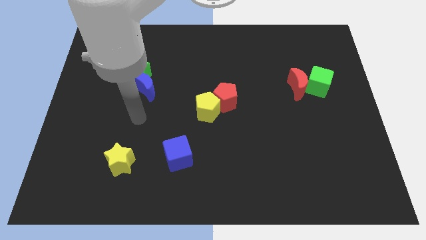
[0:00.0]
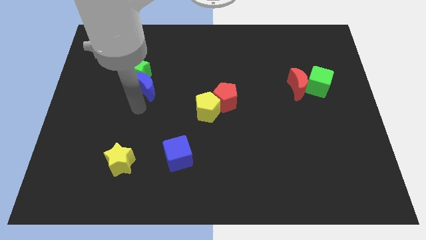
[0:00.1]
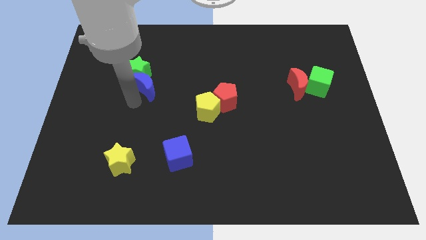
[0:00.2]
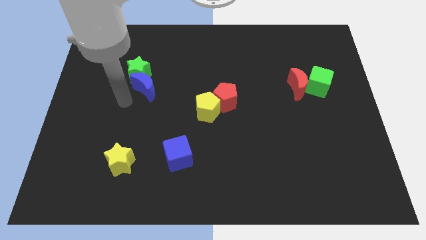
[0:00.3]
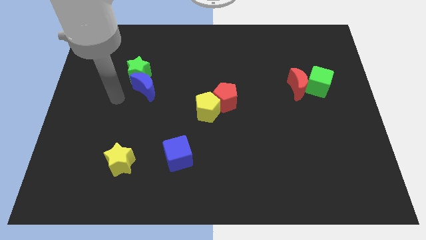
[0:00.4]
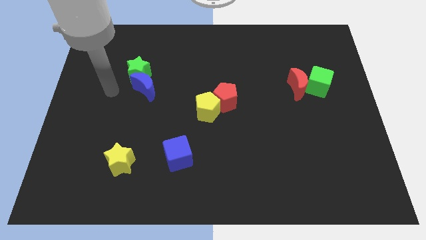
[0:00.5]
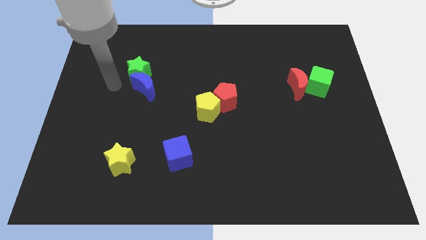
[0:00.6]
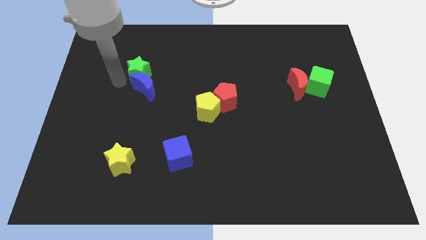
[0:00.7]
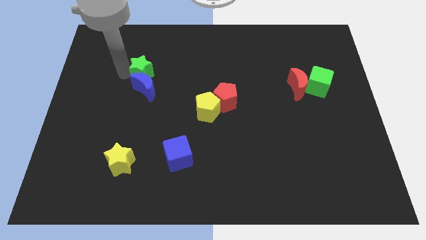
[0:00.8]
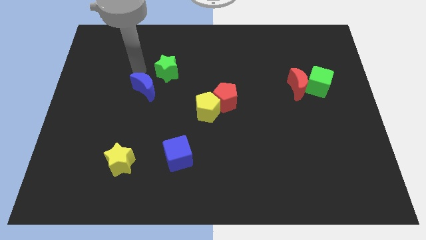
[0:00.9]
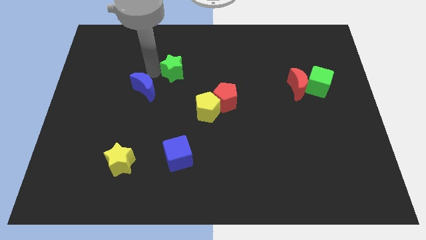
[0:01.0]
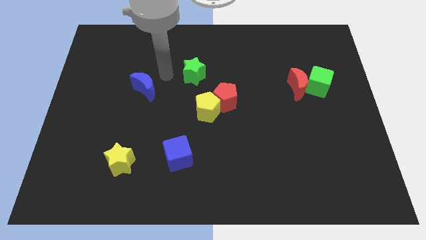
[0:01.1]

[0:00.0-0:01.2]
separate the blue moon from the green star

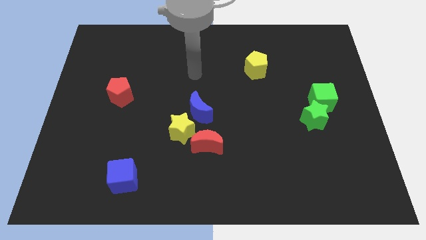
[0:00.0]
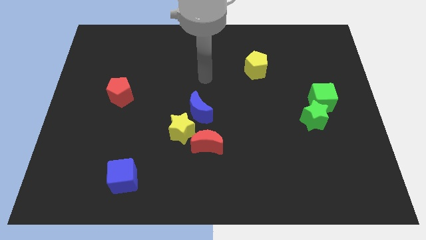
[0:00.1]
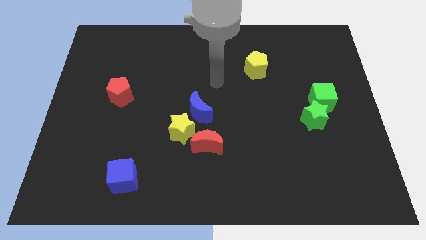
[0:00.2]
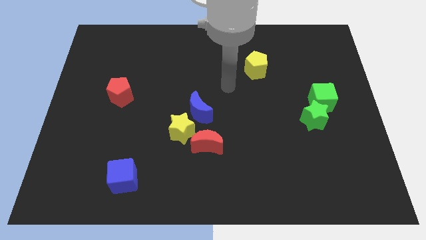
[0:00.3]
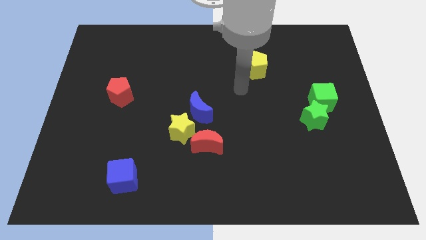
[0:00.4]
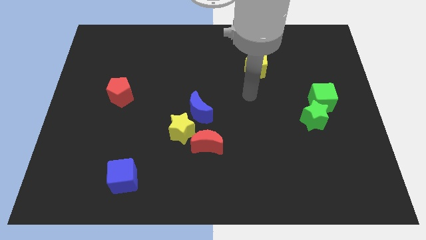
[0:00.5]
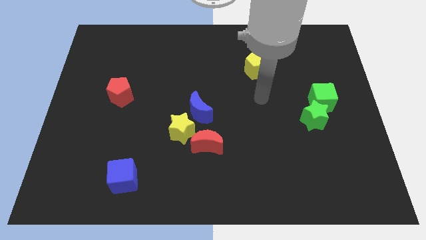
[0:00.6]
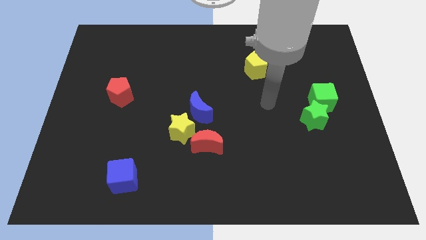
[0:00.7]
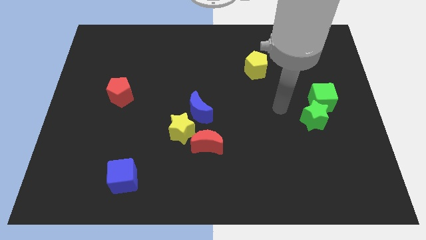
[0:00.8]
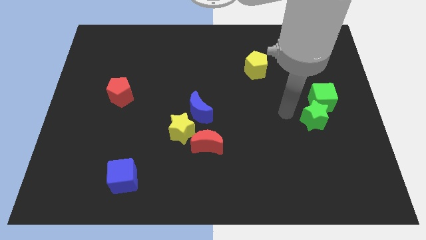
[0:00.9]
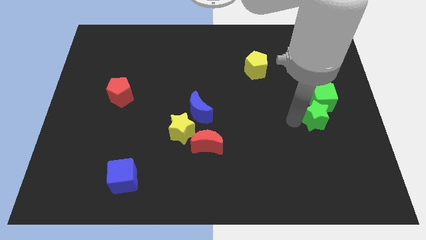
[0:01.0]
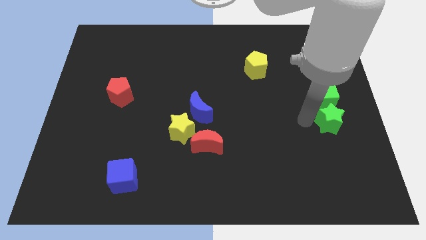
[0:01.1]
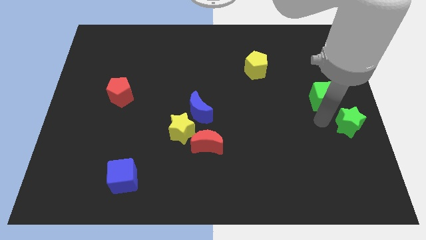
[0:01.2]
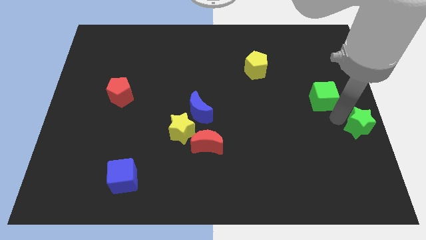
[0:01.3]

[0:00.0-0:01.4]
pull the green cube apart from the green star

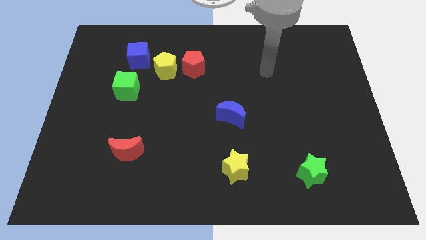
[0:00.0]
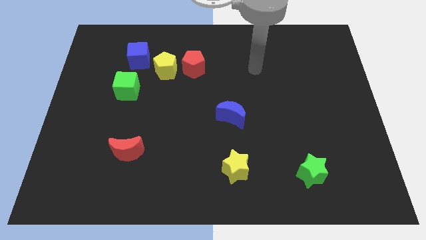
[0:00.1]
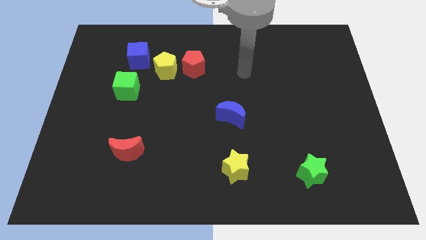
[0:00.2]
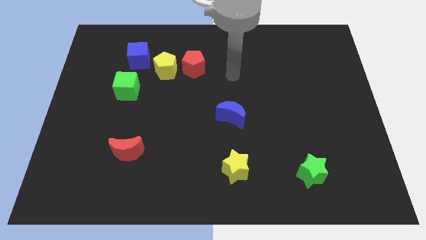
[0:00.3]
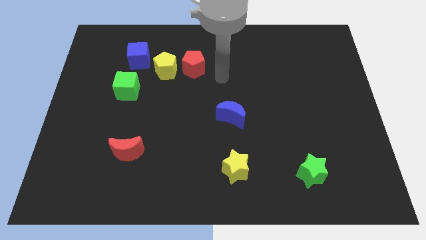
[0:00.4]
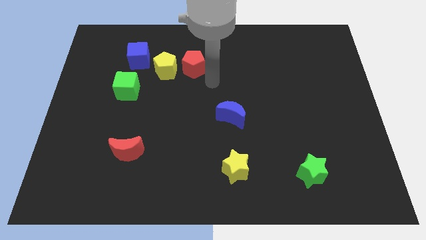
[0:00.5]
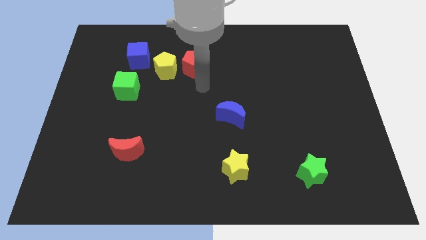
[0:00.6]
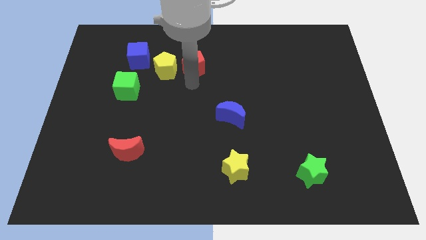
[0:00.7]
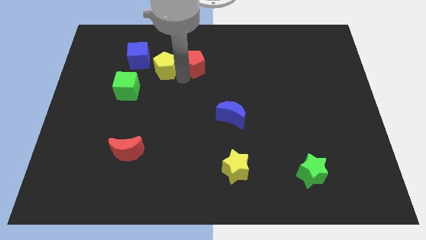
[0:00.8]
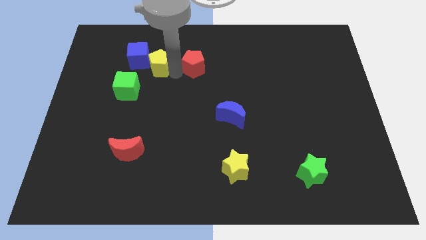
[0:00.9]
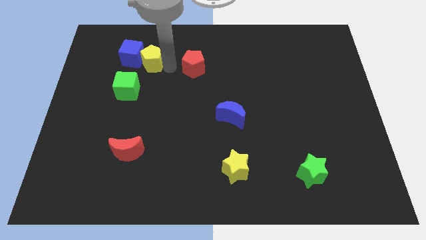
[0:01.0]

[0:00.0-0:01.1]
separate the red pentagon from the yellow pentagon

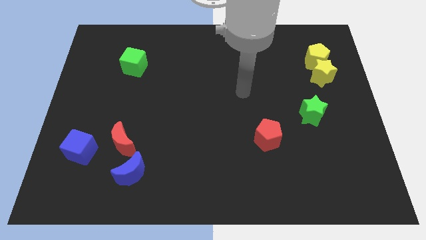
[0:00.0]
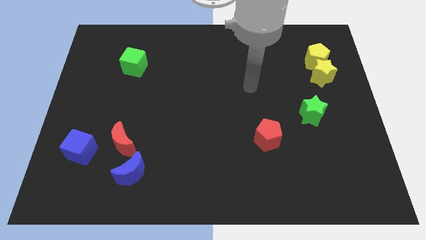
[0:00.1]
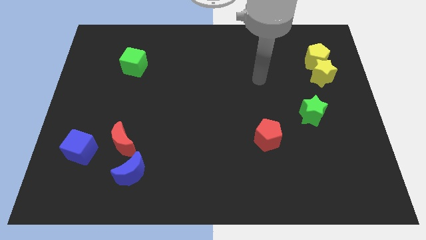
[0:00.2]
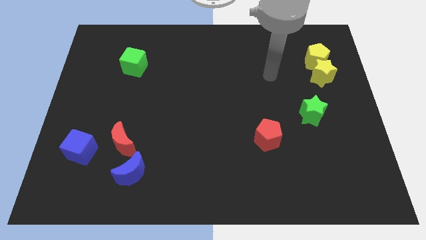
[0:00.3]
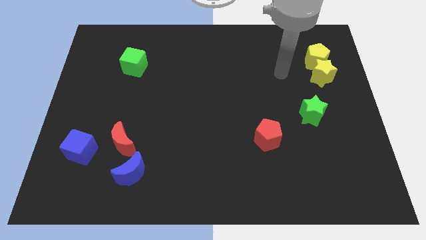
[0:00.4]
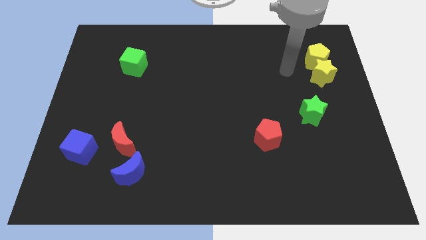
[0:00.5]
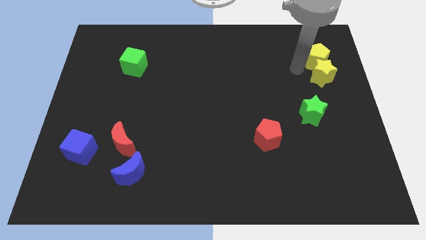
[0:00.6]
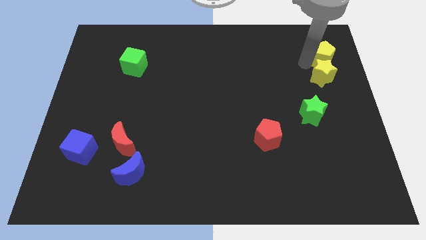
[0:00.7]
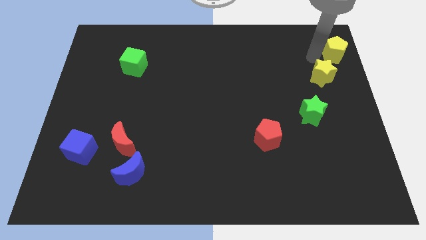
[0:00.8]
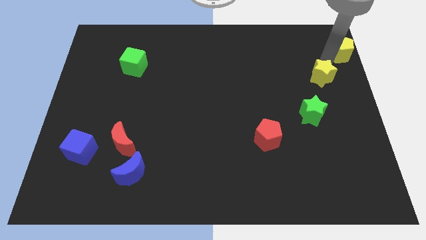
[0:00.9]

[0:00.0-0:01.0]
separate the yellow star from the yellow pentagon

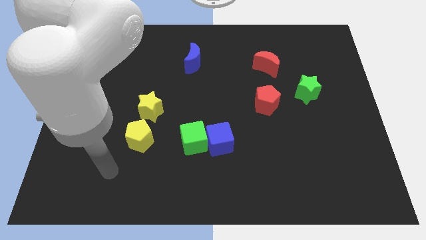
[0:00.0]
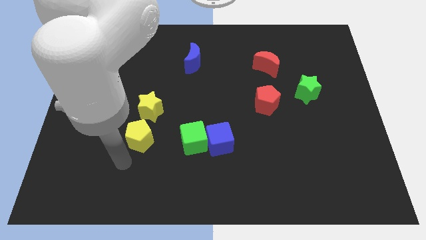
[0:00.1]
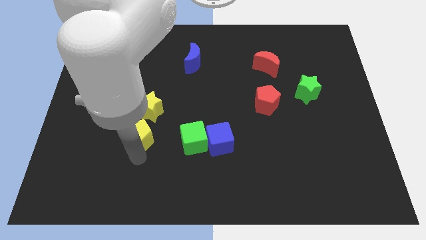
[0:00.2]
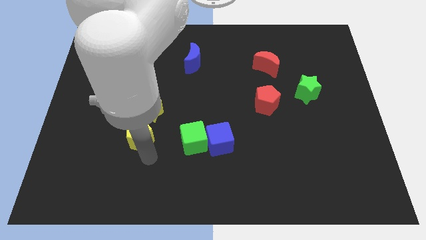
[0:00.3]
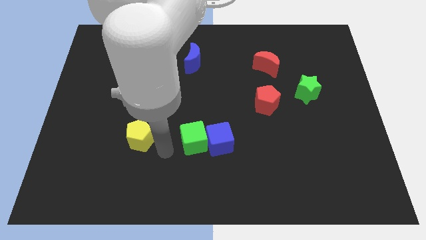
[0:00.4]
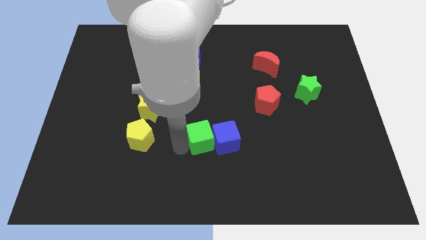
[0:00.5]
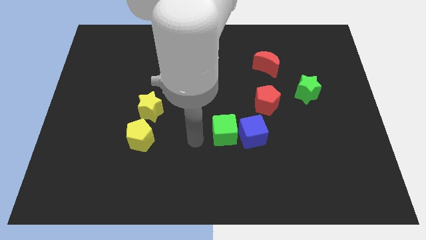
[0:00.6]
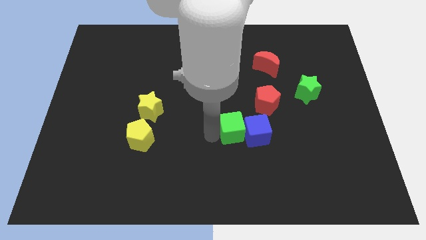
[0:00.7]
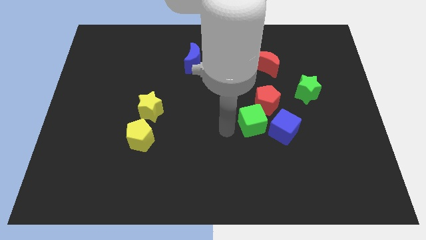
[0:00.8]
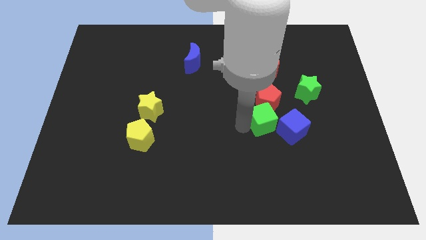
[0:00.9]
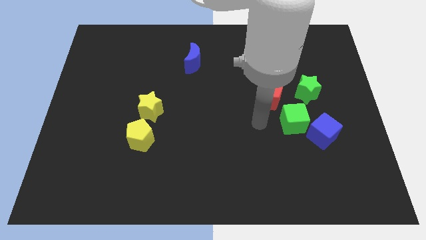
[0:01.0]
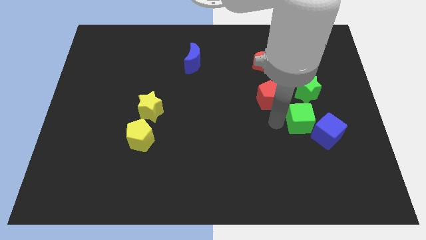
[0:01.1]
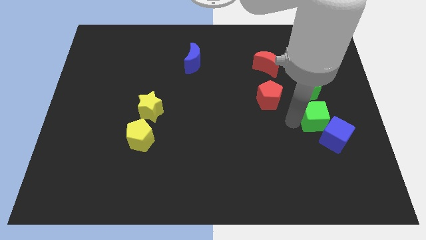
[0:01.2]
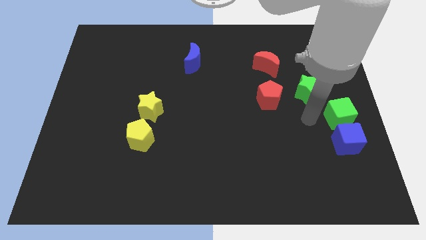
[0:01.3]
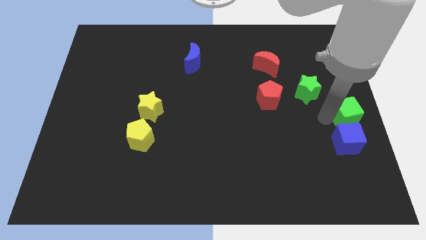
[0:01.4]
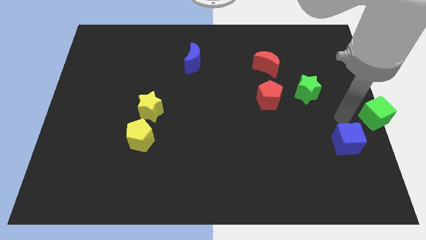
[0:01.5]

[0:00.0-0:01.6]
pull the blue cube apart from the green cube

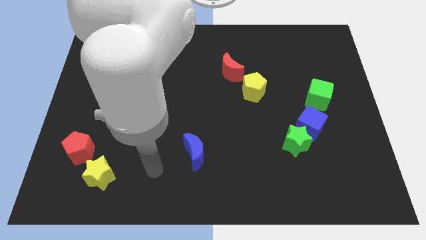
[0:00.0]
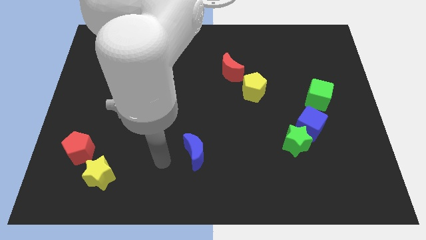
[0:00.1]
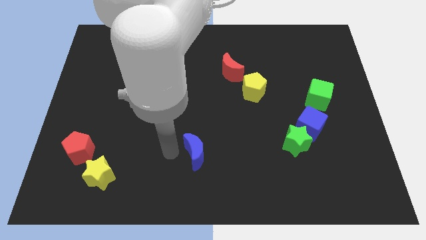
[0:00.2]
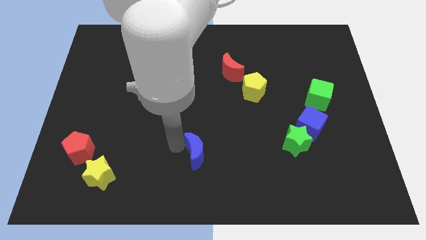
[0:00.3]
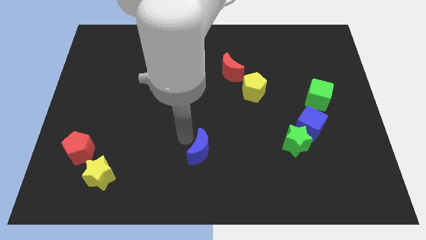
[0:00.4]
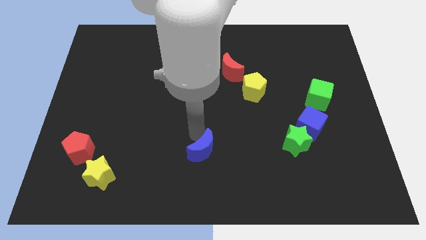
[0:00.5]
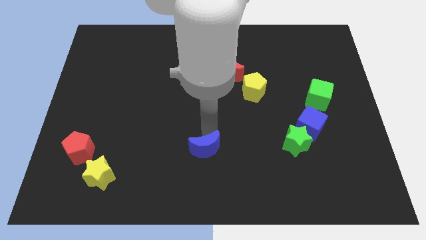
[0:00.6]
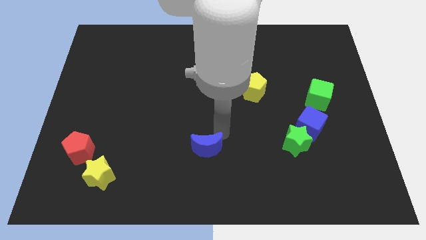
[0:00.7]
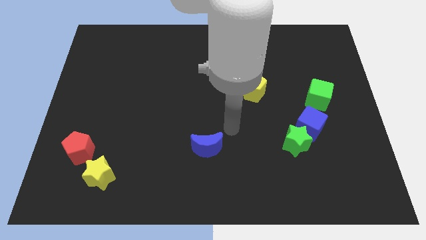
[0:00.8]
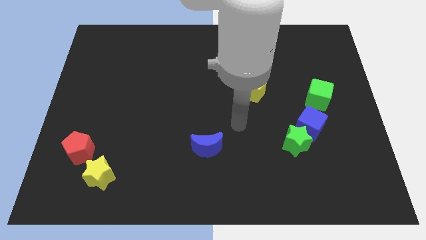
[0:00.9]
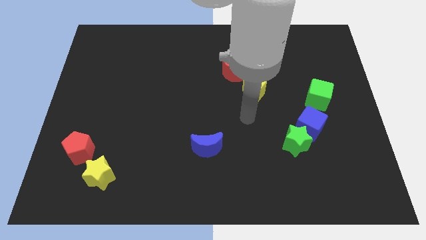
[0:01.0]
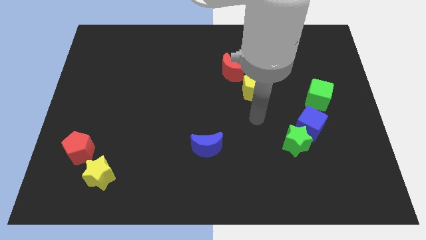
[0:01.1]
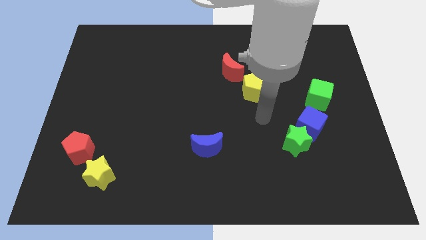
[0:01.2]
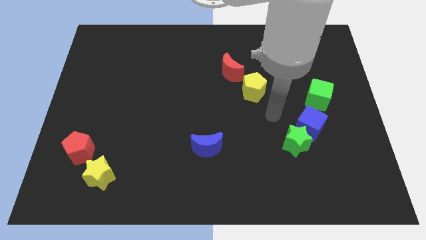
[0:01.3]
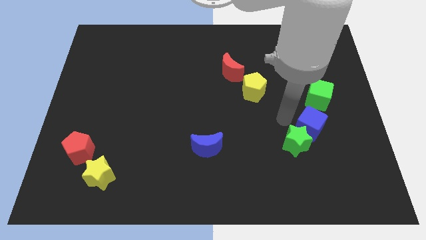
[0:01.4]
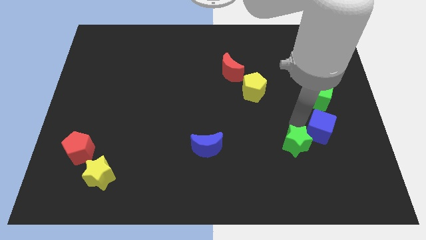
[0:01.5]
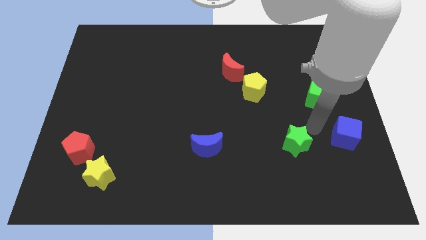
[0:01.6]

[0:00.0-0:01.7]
pull the green star apart from the blue cube

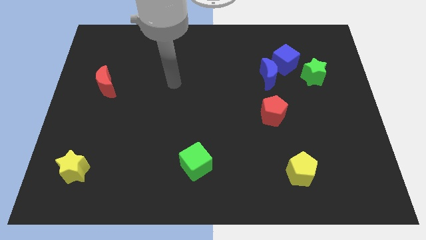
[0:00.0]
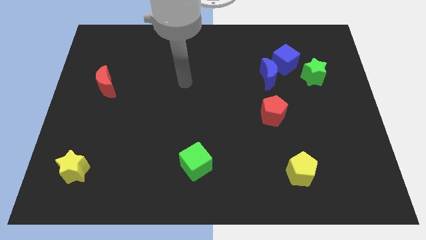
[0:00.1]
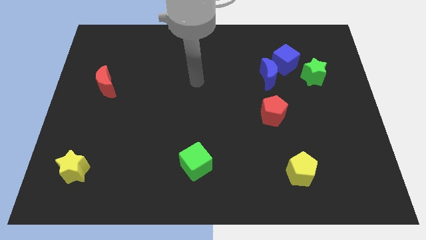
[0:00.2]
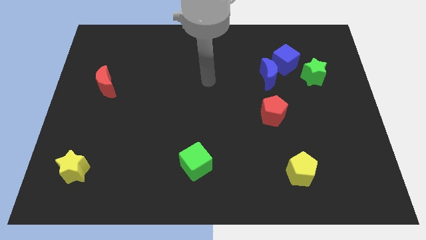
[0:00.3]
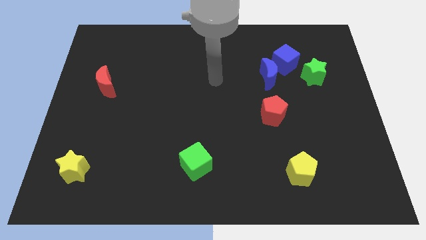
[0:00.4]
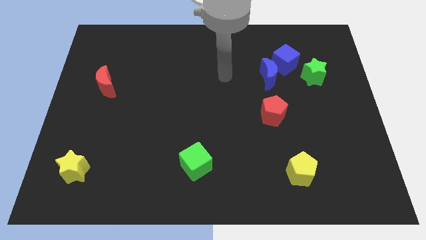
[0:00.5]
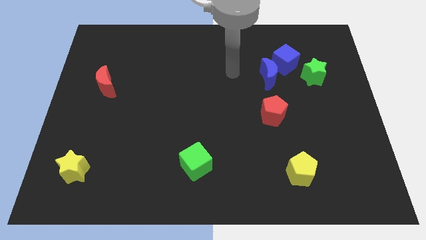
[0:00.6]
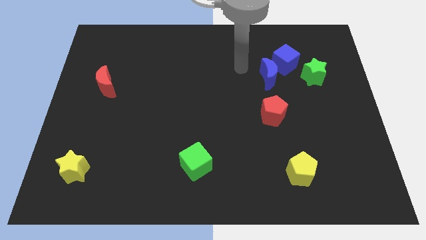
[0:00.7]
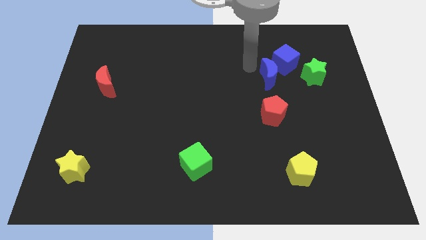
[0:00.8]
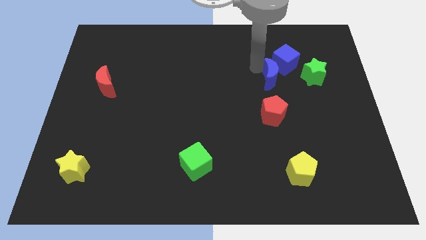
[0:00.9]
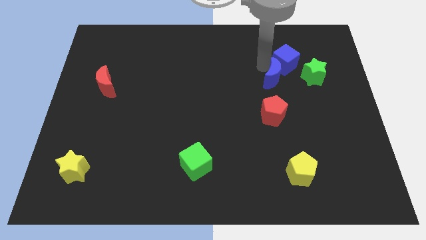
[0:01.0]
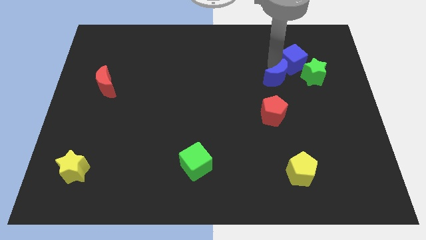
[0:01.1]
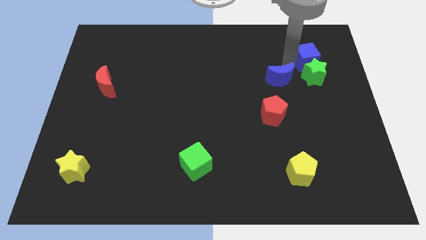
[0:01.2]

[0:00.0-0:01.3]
pull the blue moon apart from the blue cube
